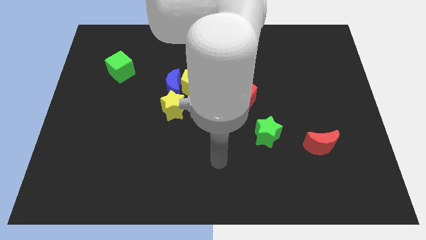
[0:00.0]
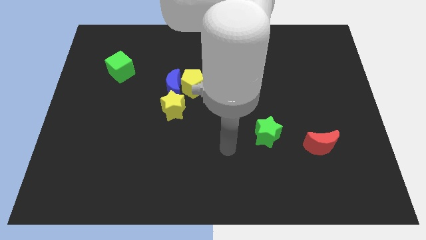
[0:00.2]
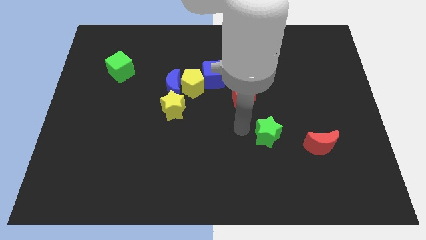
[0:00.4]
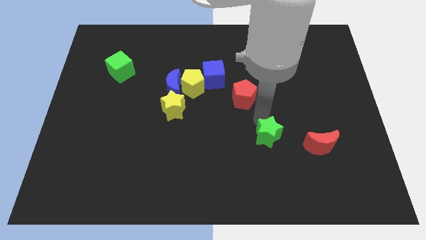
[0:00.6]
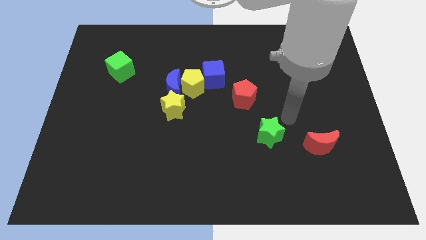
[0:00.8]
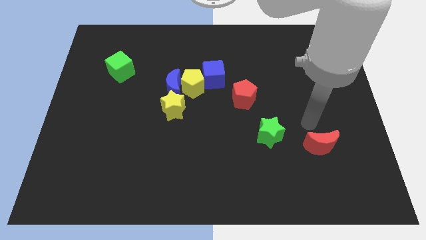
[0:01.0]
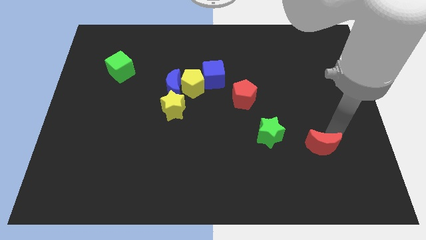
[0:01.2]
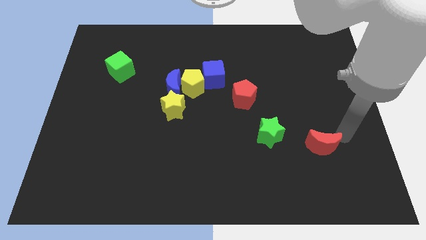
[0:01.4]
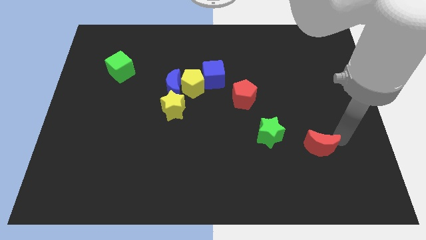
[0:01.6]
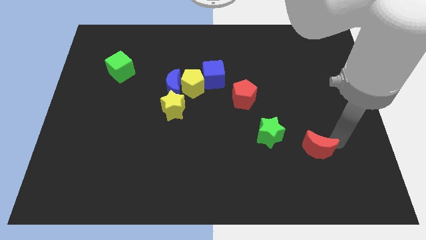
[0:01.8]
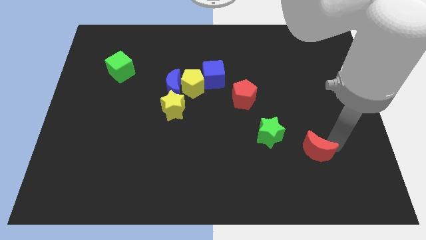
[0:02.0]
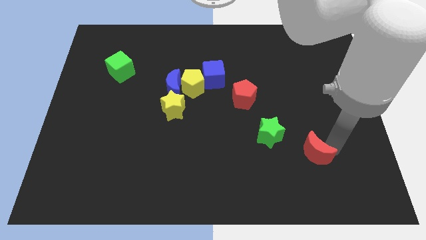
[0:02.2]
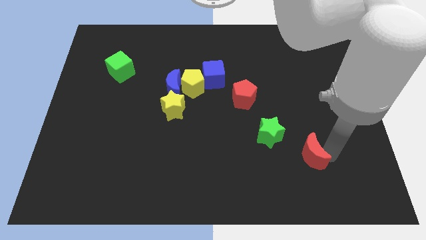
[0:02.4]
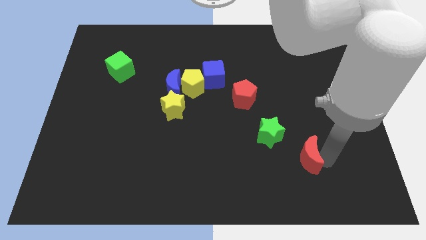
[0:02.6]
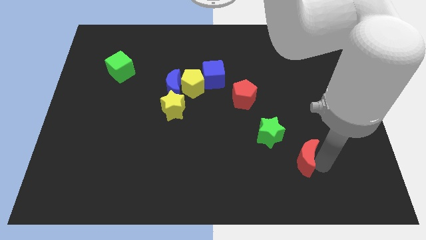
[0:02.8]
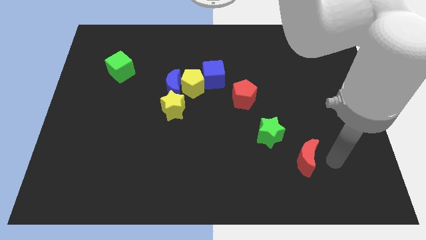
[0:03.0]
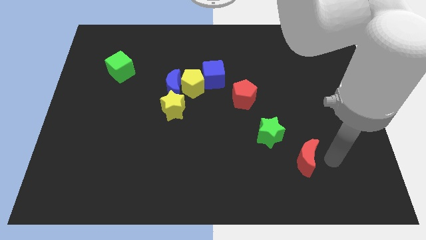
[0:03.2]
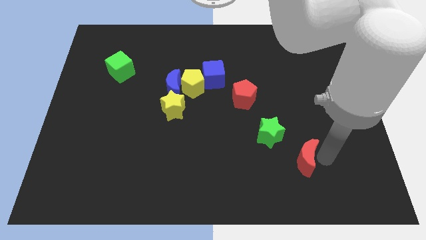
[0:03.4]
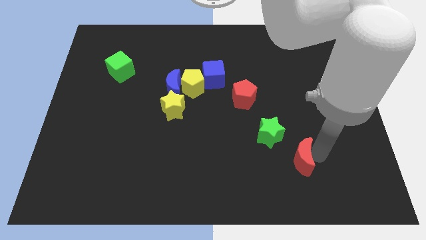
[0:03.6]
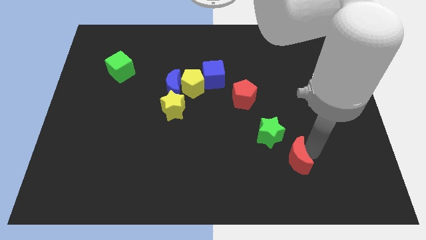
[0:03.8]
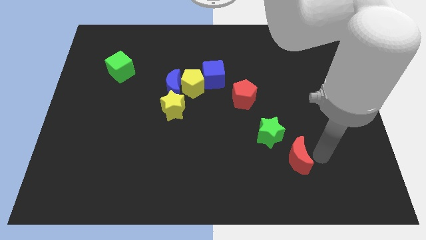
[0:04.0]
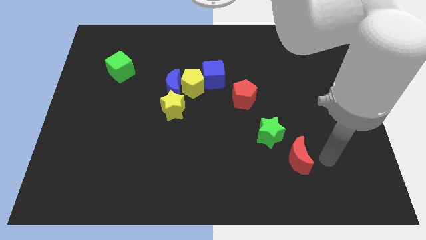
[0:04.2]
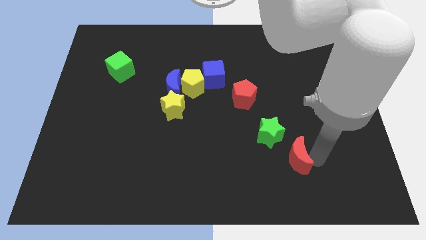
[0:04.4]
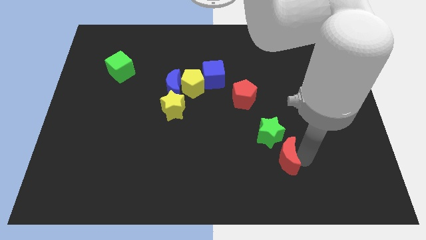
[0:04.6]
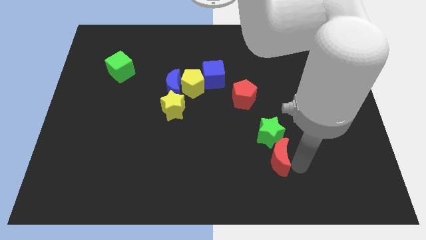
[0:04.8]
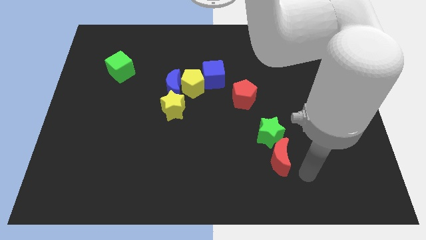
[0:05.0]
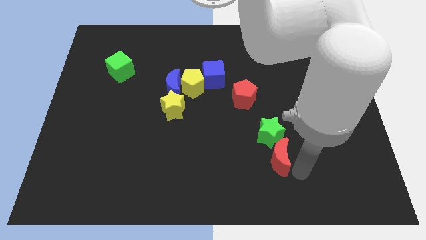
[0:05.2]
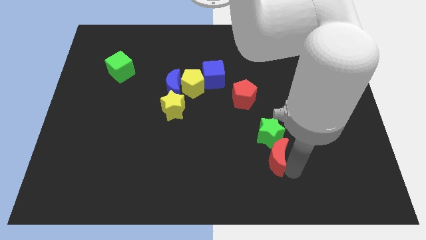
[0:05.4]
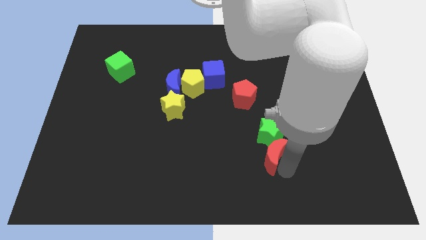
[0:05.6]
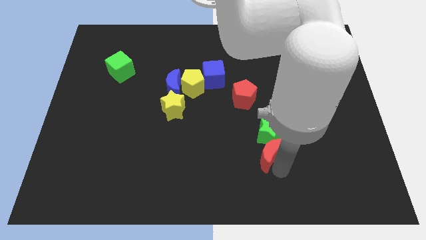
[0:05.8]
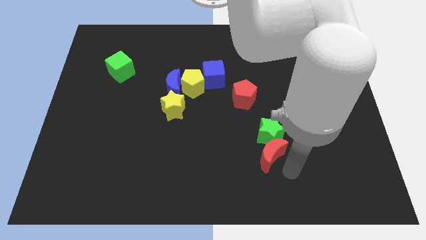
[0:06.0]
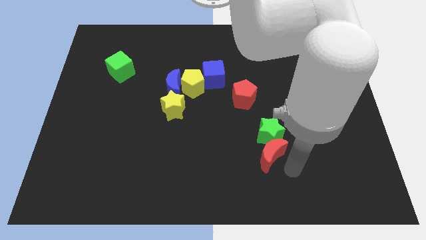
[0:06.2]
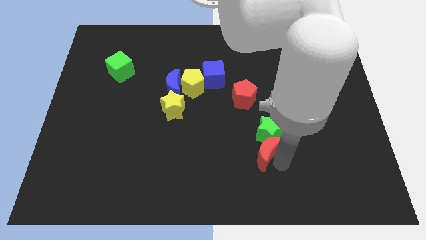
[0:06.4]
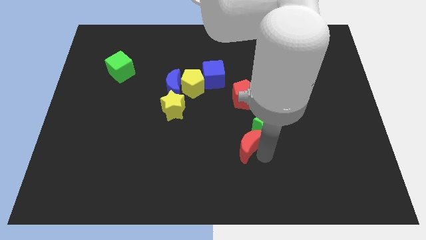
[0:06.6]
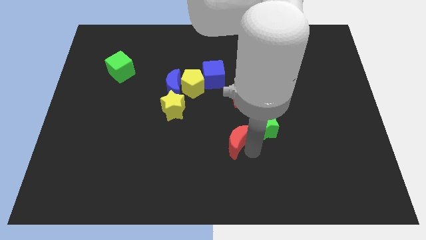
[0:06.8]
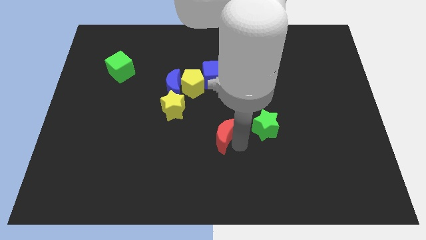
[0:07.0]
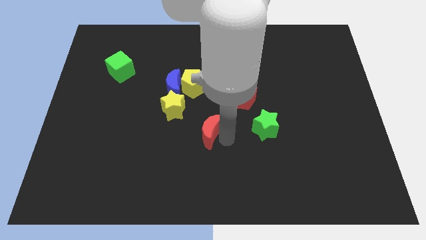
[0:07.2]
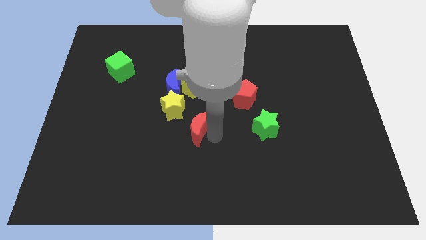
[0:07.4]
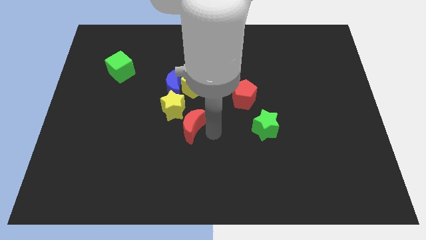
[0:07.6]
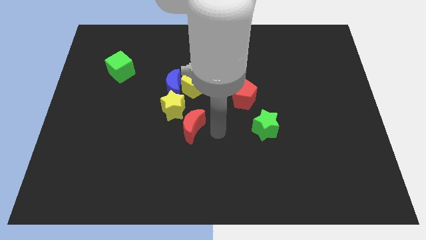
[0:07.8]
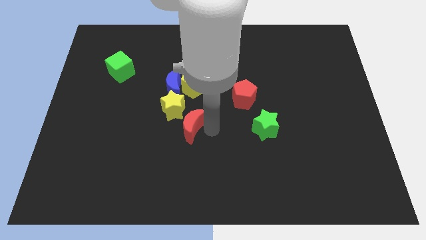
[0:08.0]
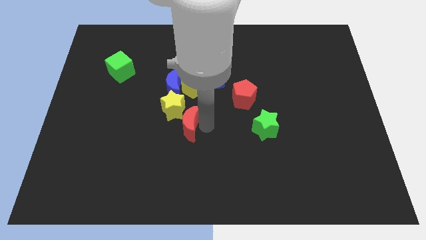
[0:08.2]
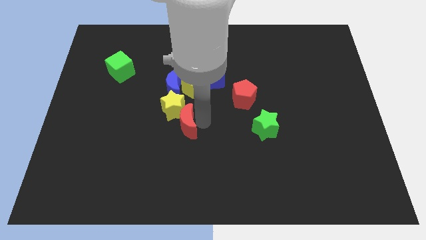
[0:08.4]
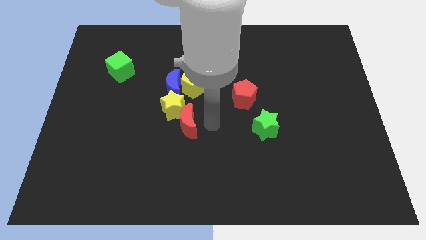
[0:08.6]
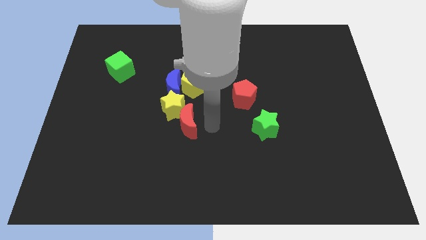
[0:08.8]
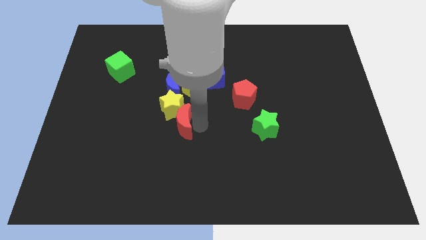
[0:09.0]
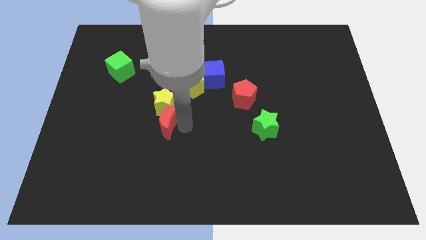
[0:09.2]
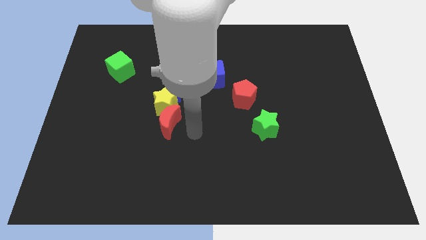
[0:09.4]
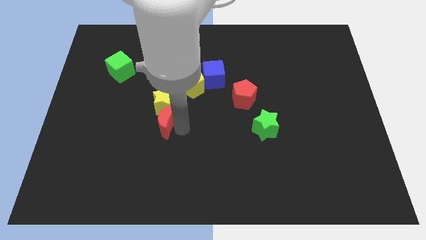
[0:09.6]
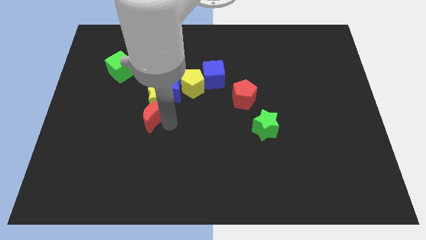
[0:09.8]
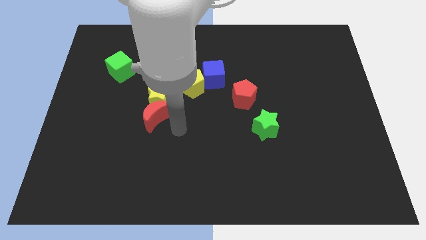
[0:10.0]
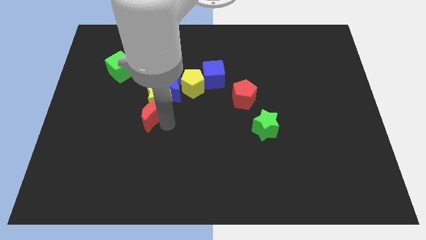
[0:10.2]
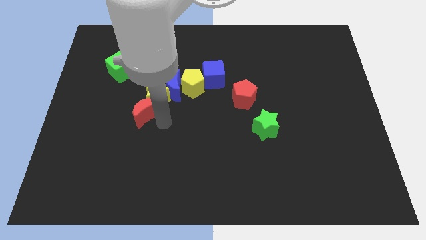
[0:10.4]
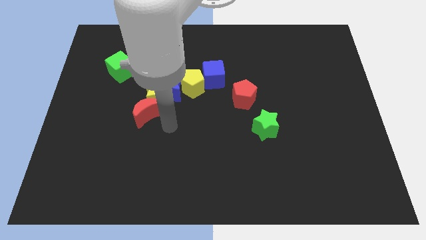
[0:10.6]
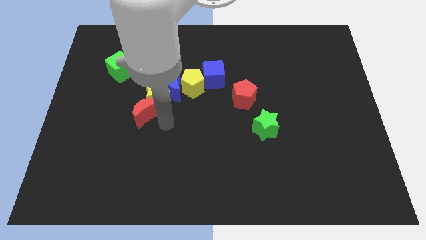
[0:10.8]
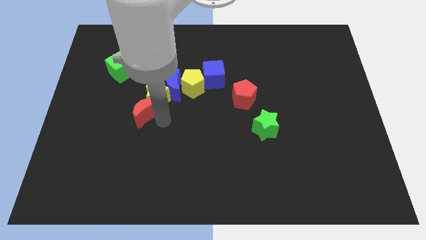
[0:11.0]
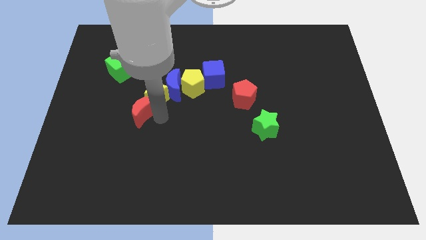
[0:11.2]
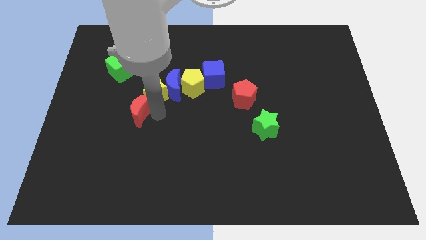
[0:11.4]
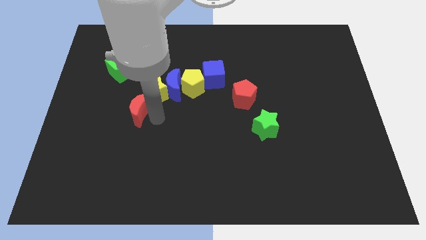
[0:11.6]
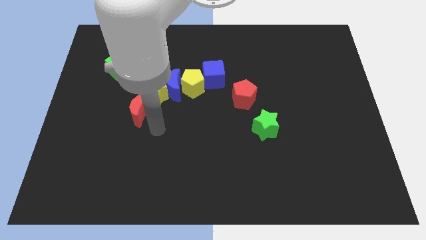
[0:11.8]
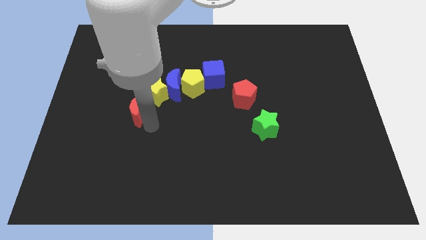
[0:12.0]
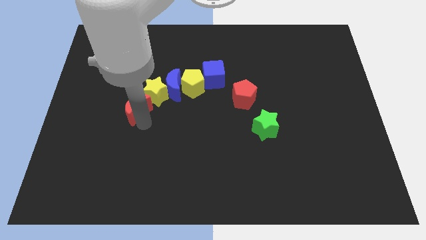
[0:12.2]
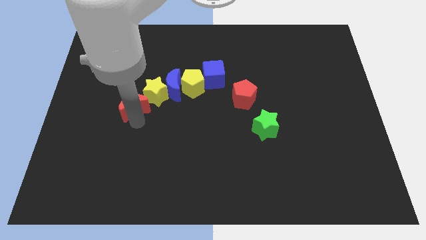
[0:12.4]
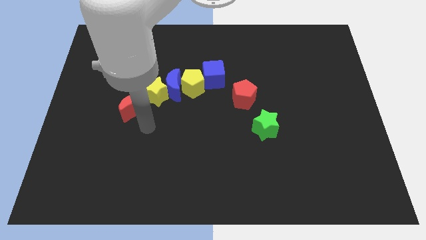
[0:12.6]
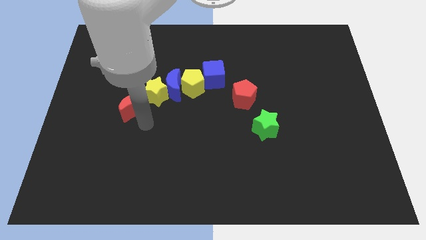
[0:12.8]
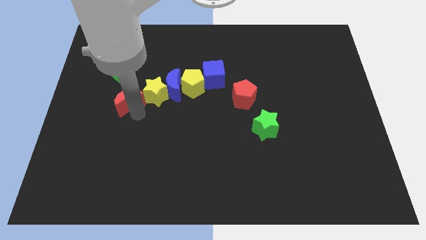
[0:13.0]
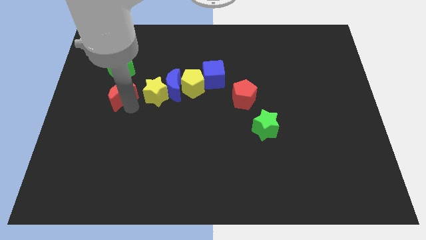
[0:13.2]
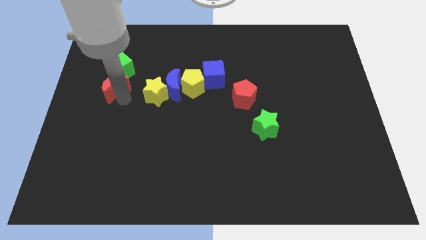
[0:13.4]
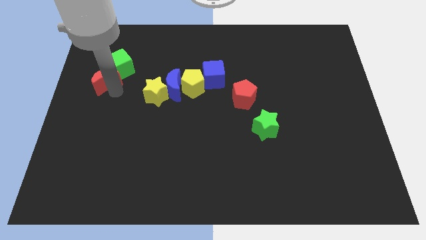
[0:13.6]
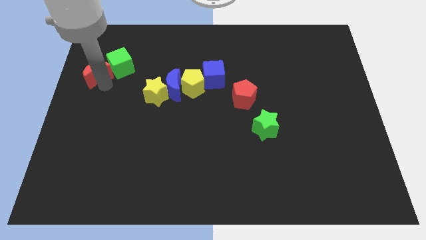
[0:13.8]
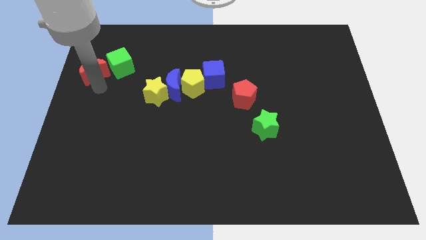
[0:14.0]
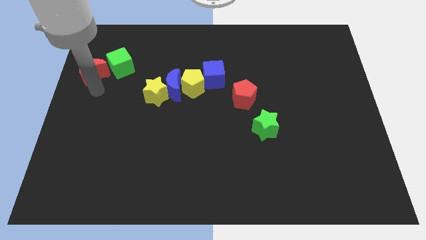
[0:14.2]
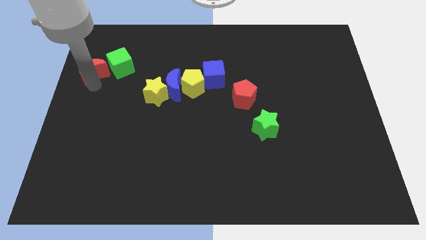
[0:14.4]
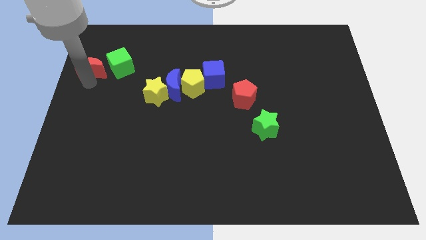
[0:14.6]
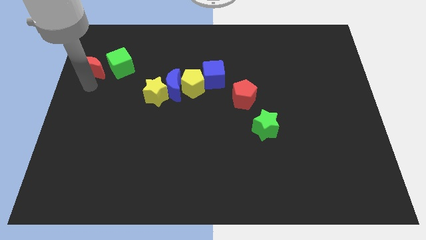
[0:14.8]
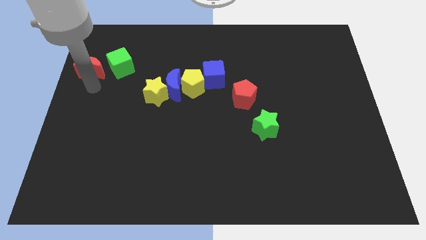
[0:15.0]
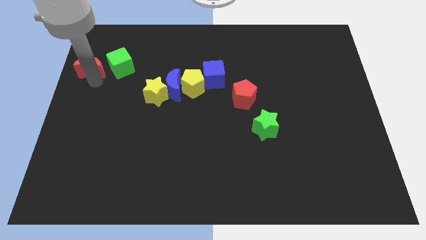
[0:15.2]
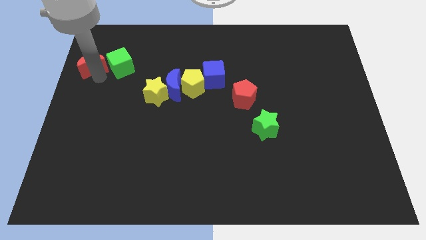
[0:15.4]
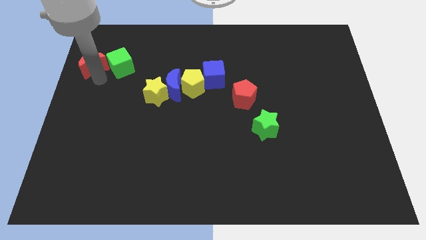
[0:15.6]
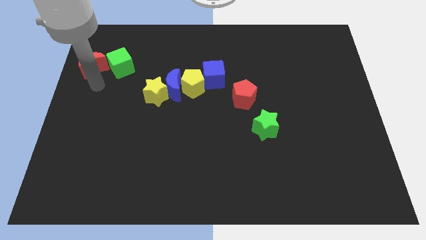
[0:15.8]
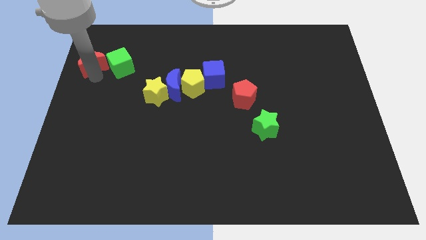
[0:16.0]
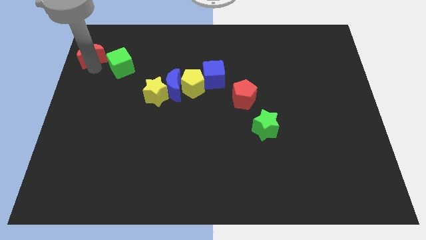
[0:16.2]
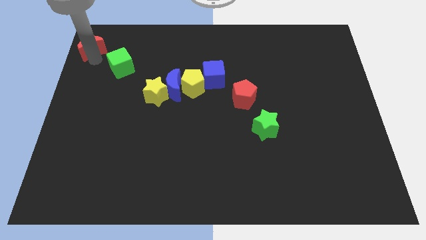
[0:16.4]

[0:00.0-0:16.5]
slide the red moon to the top left corner
